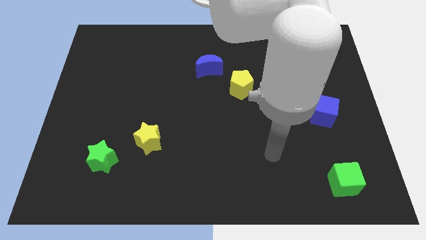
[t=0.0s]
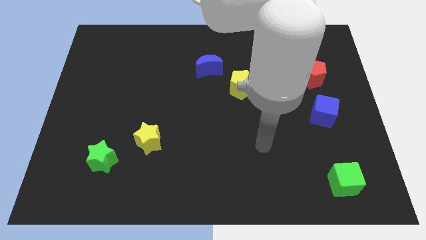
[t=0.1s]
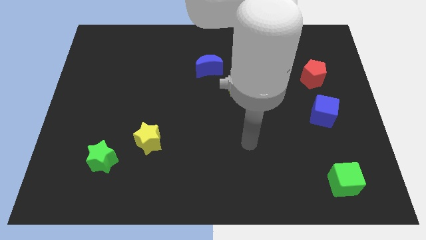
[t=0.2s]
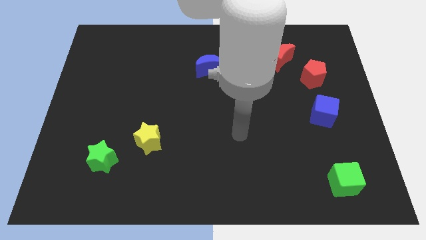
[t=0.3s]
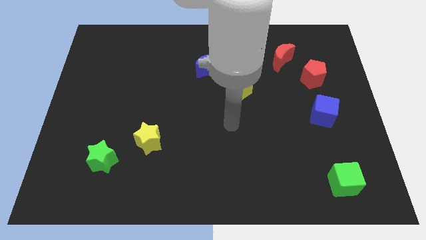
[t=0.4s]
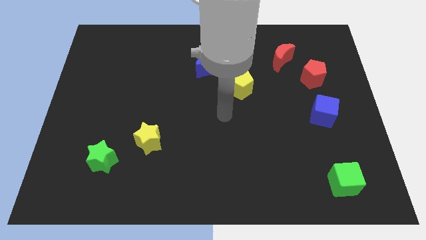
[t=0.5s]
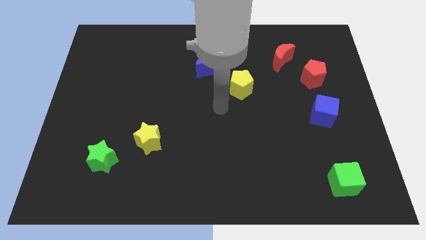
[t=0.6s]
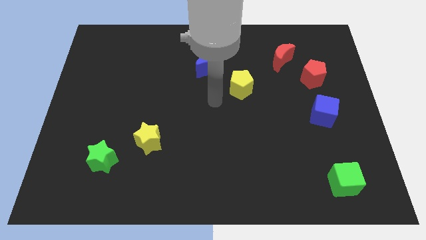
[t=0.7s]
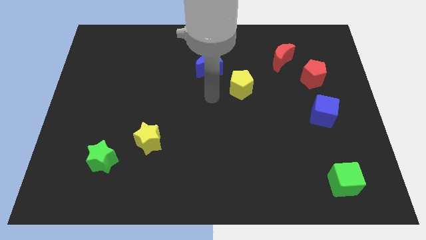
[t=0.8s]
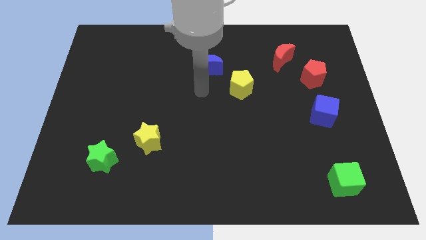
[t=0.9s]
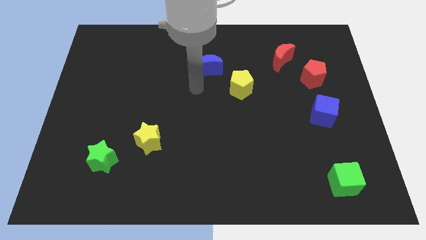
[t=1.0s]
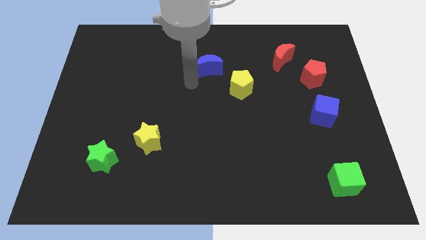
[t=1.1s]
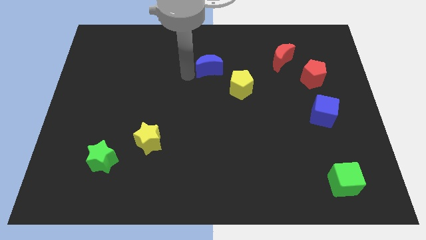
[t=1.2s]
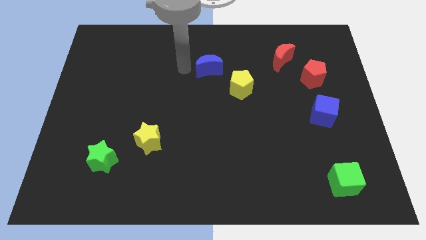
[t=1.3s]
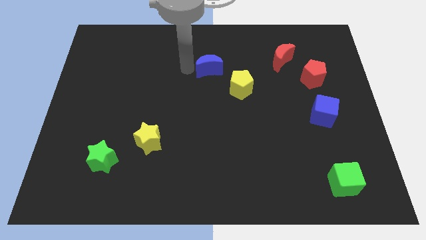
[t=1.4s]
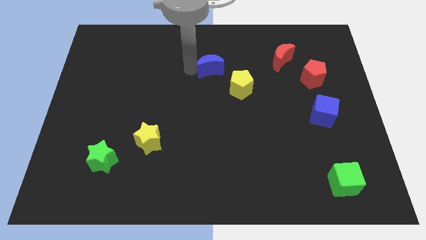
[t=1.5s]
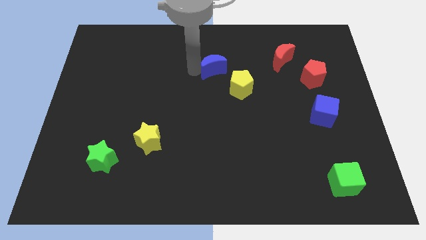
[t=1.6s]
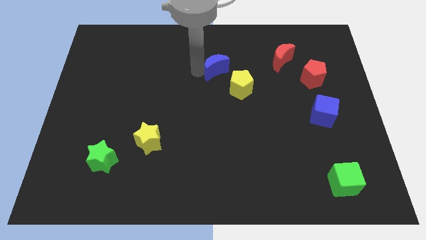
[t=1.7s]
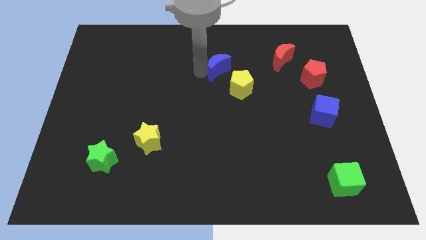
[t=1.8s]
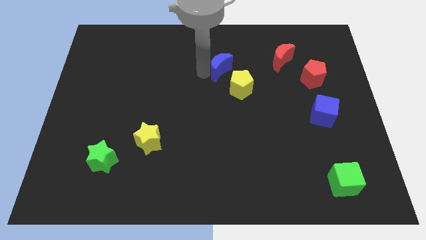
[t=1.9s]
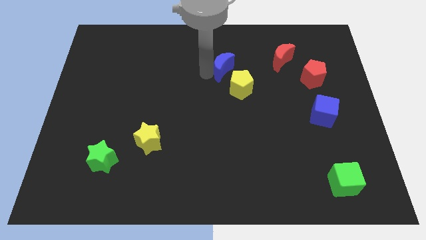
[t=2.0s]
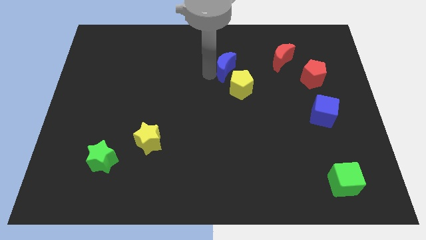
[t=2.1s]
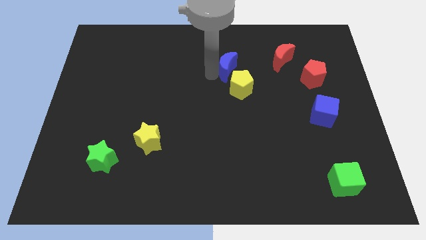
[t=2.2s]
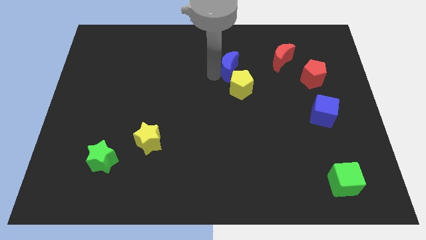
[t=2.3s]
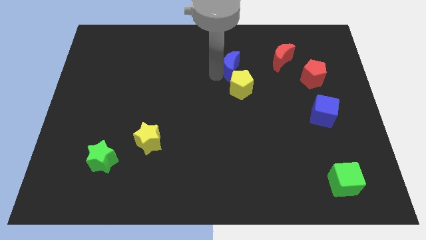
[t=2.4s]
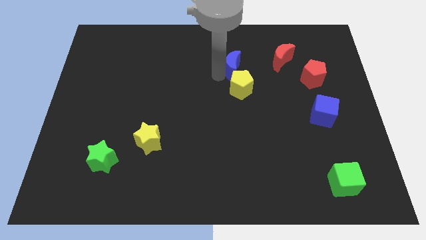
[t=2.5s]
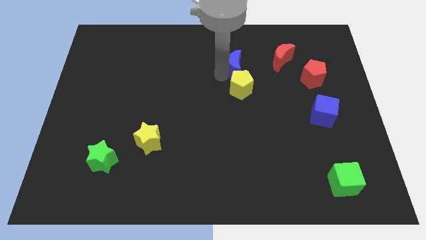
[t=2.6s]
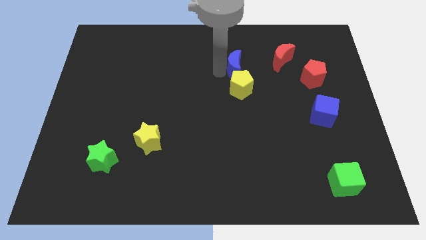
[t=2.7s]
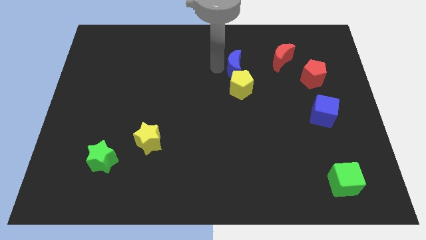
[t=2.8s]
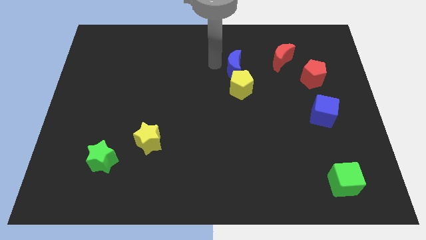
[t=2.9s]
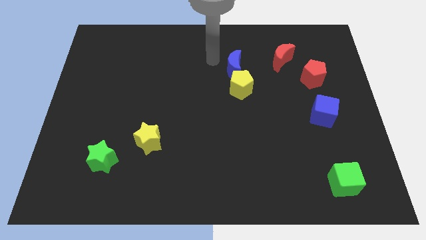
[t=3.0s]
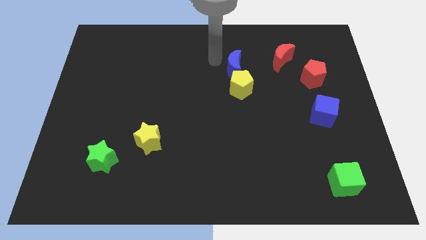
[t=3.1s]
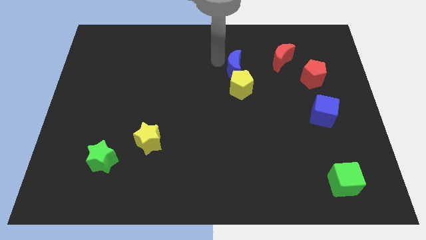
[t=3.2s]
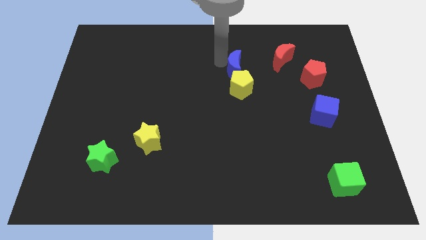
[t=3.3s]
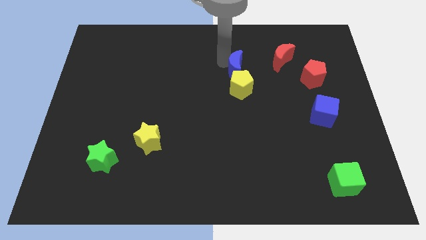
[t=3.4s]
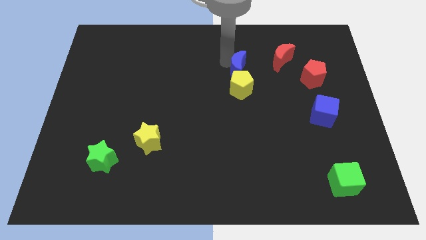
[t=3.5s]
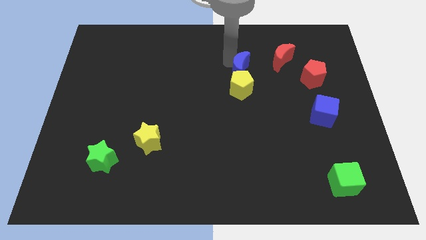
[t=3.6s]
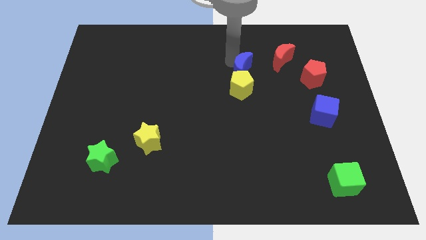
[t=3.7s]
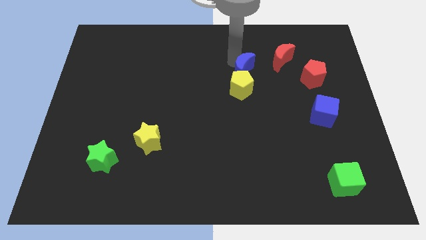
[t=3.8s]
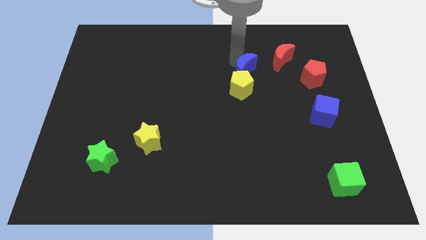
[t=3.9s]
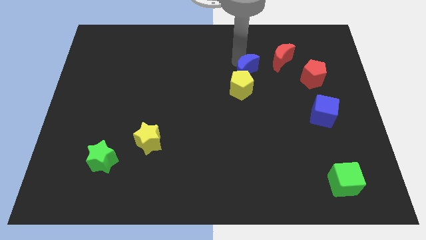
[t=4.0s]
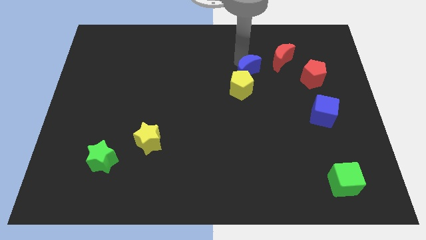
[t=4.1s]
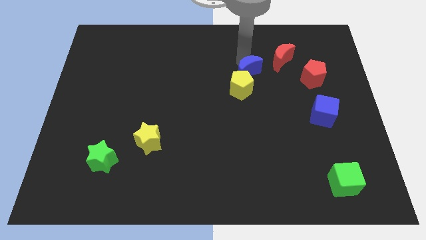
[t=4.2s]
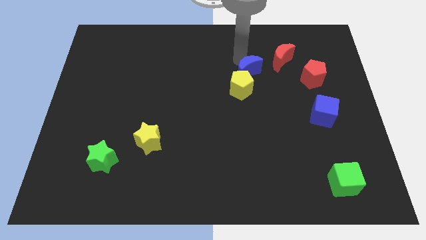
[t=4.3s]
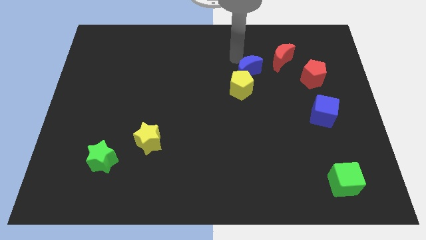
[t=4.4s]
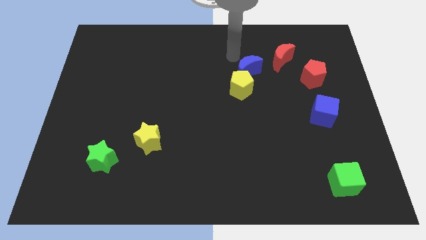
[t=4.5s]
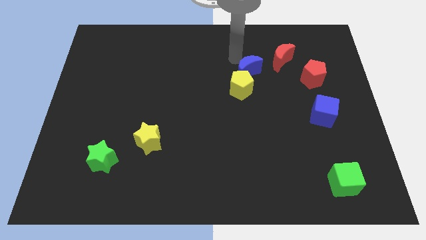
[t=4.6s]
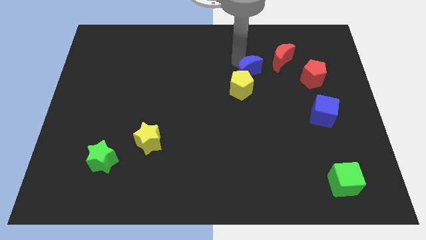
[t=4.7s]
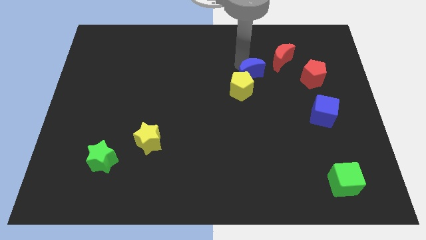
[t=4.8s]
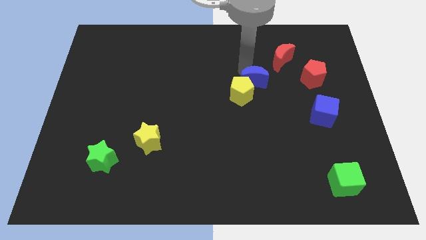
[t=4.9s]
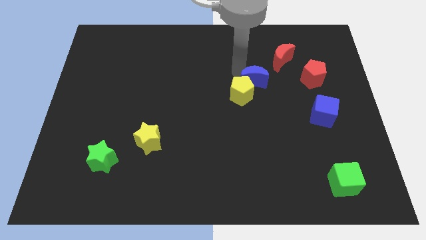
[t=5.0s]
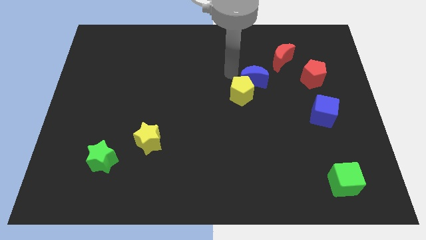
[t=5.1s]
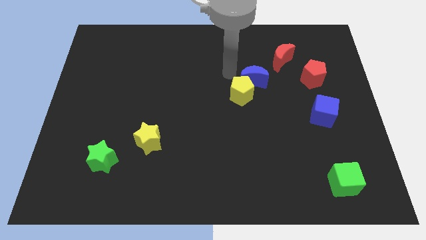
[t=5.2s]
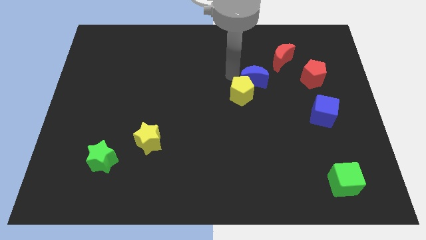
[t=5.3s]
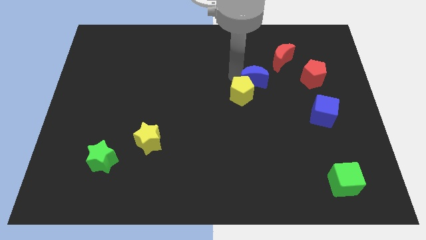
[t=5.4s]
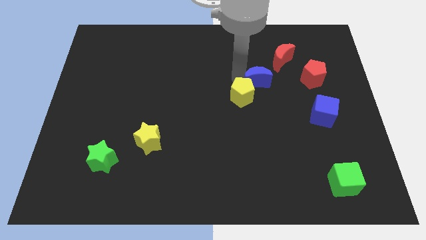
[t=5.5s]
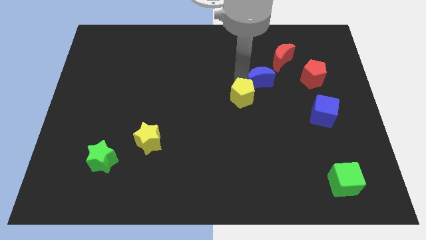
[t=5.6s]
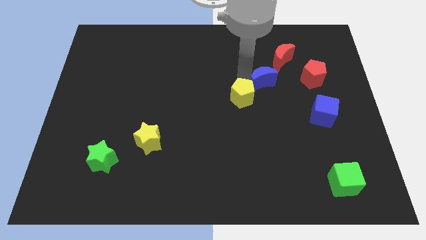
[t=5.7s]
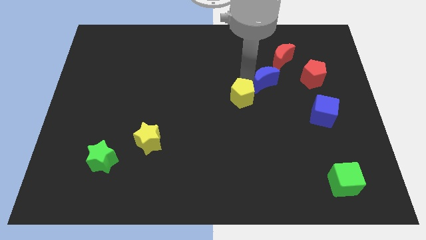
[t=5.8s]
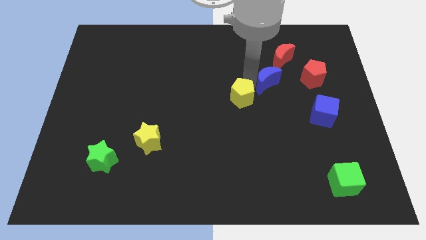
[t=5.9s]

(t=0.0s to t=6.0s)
move the blue moon to the bottom of the red moon
